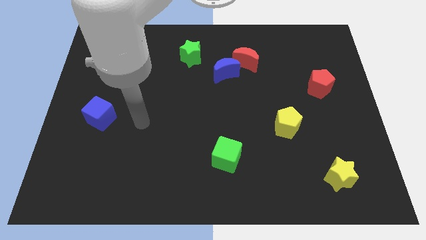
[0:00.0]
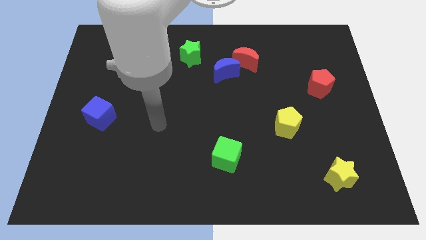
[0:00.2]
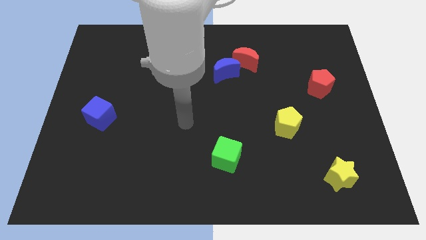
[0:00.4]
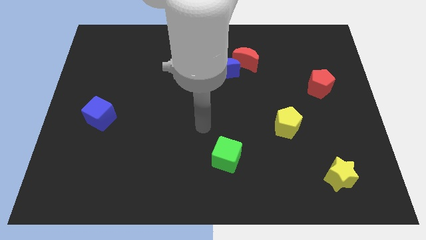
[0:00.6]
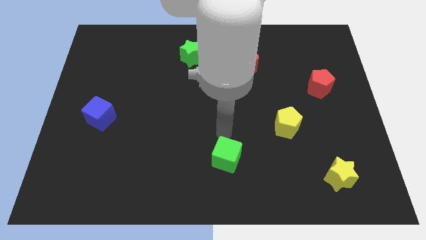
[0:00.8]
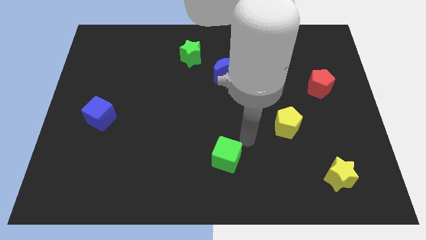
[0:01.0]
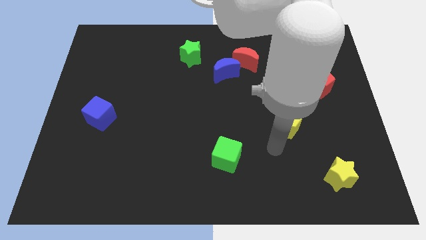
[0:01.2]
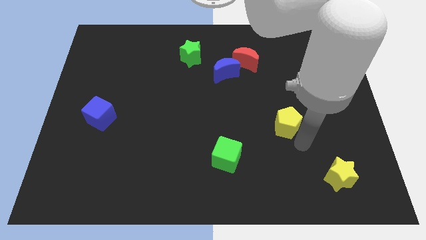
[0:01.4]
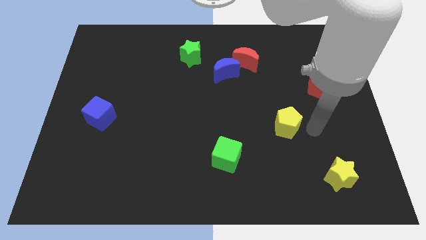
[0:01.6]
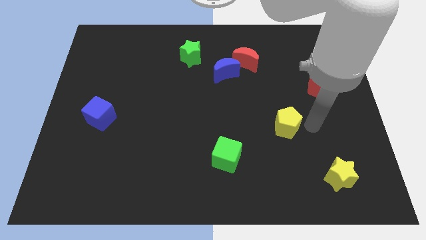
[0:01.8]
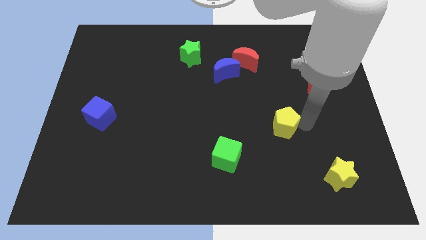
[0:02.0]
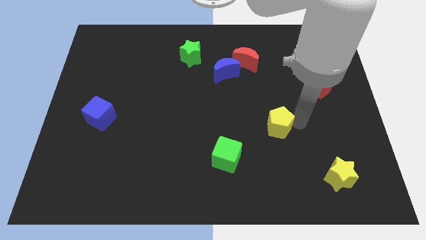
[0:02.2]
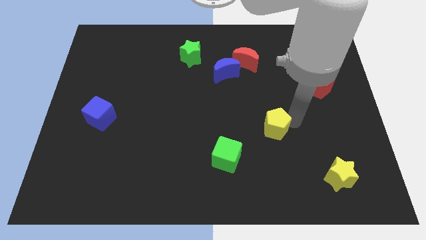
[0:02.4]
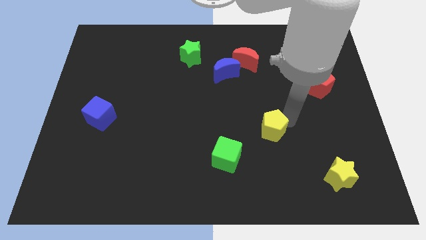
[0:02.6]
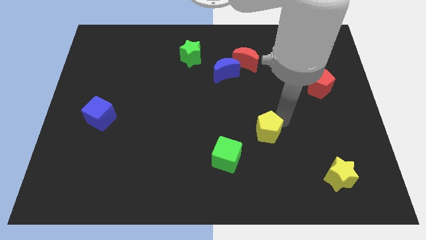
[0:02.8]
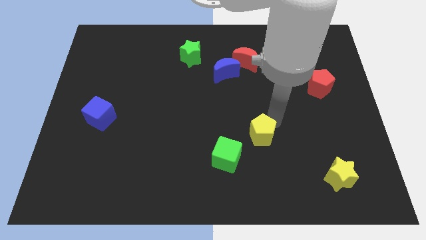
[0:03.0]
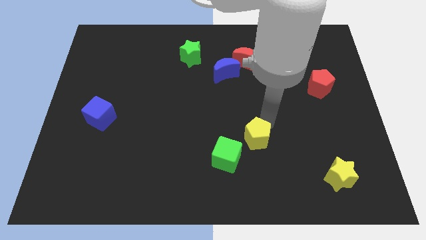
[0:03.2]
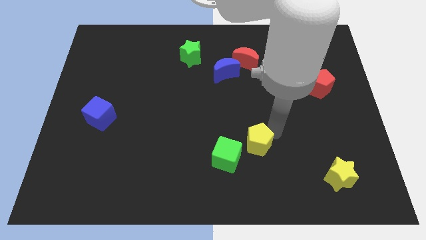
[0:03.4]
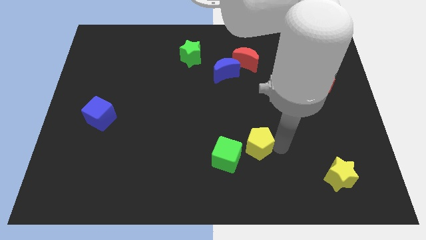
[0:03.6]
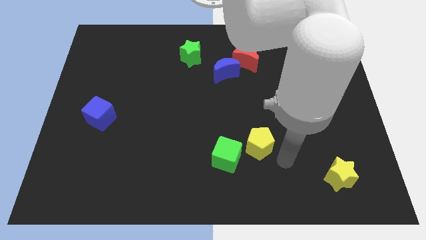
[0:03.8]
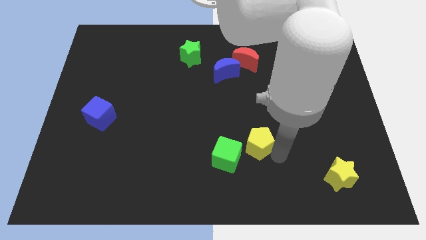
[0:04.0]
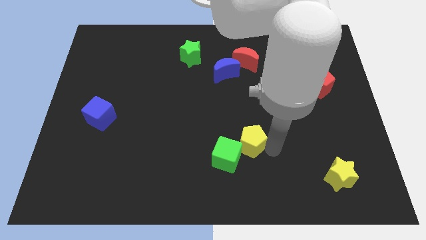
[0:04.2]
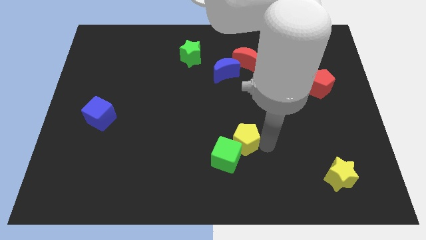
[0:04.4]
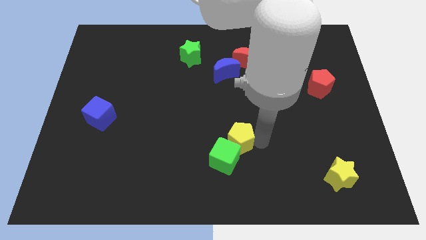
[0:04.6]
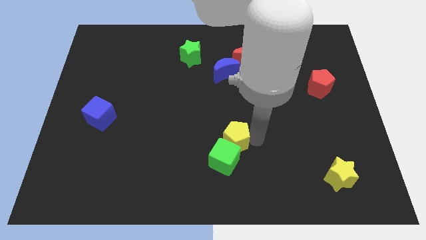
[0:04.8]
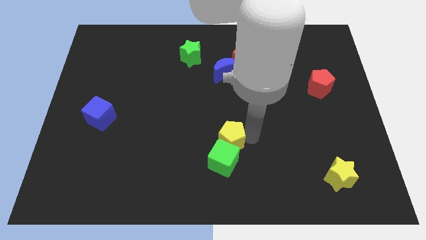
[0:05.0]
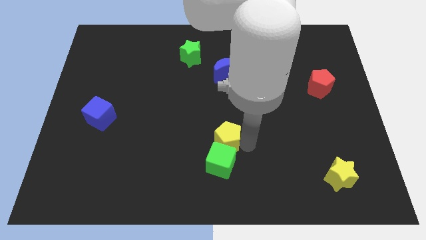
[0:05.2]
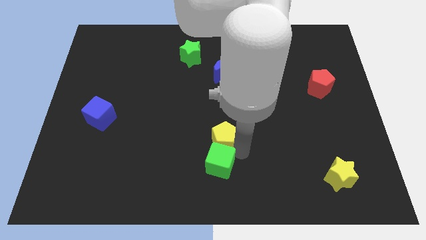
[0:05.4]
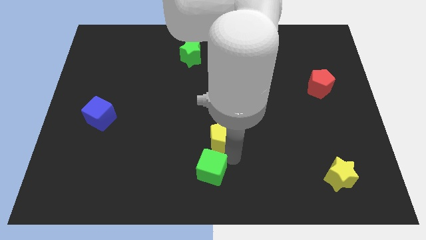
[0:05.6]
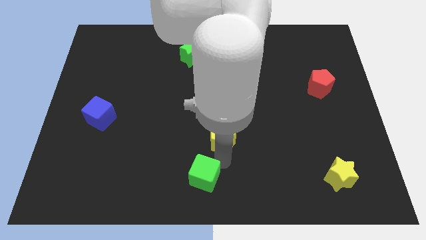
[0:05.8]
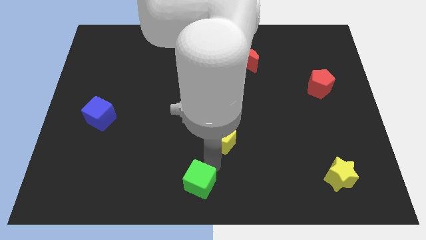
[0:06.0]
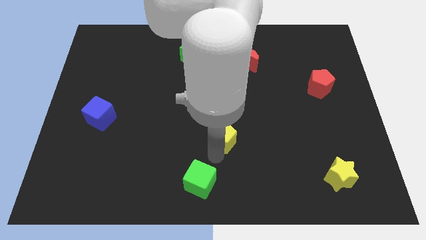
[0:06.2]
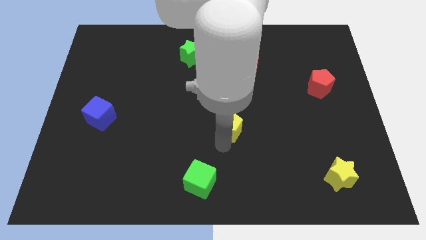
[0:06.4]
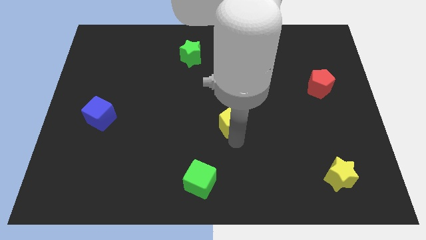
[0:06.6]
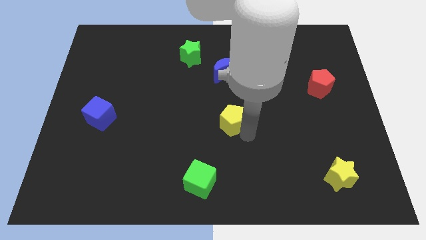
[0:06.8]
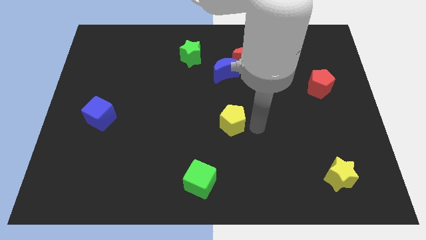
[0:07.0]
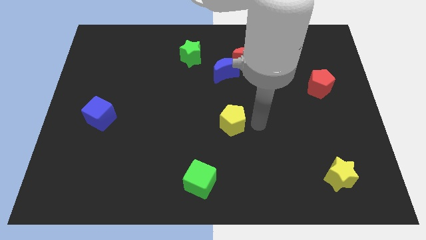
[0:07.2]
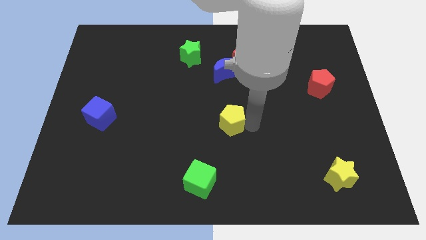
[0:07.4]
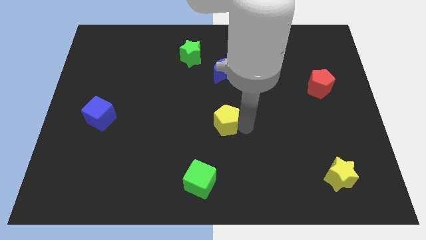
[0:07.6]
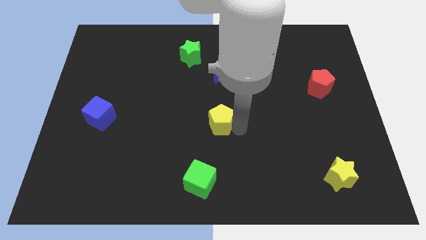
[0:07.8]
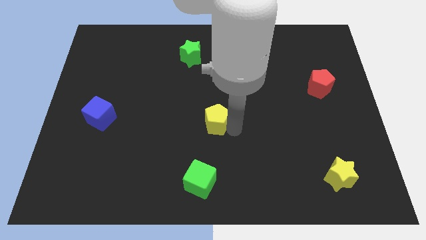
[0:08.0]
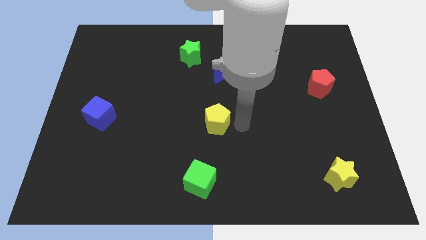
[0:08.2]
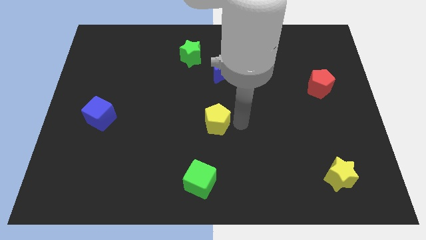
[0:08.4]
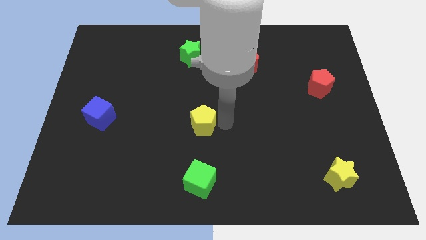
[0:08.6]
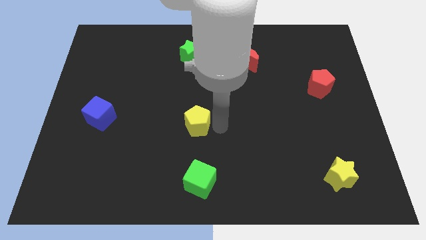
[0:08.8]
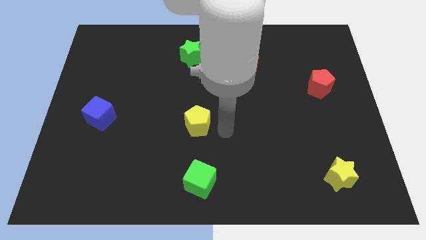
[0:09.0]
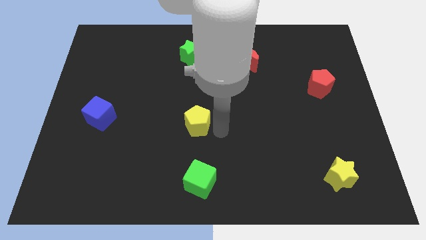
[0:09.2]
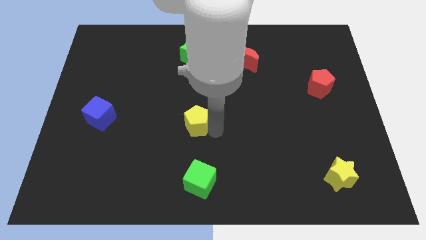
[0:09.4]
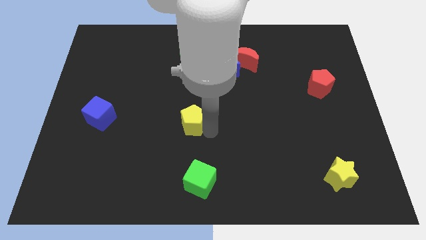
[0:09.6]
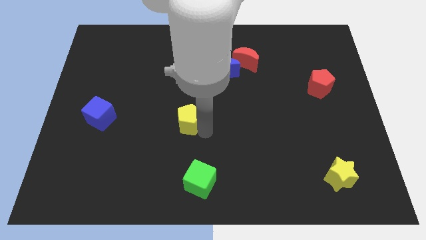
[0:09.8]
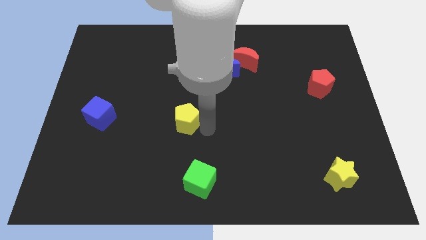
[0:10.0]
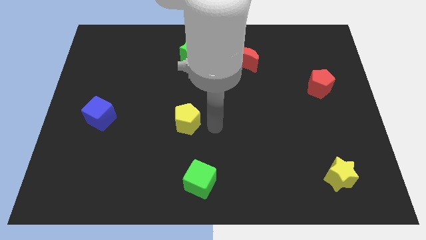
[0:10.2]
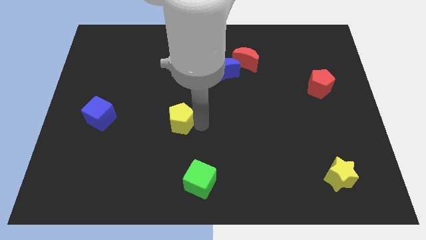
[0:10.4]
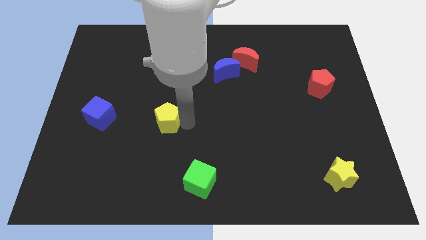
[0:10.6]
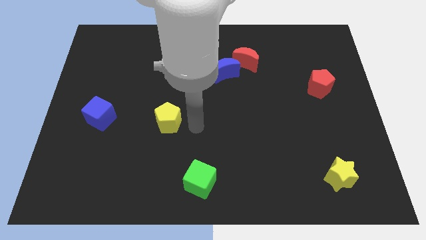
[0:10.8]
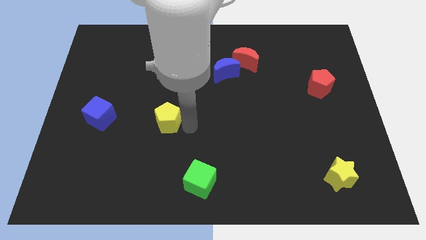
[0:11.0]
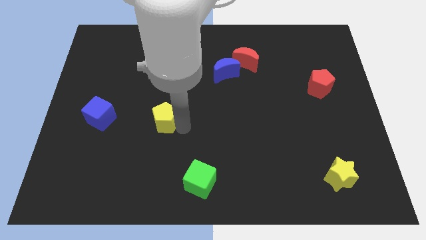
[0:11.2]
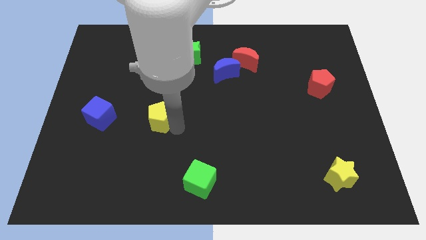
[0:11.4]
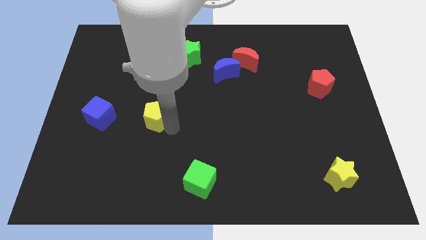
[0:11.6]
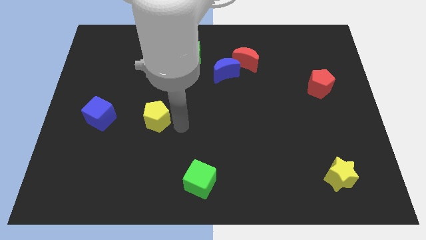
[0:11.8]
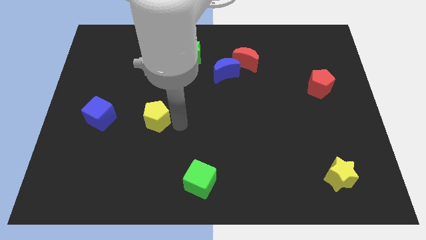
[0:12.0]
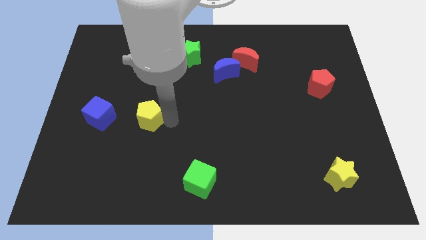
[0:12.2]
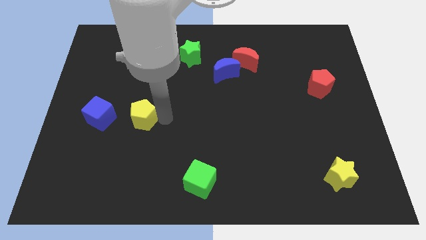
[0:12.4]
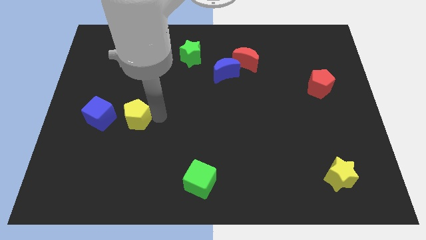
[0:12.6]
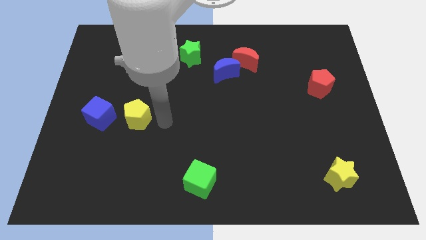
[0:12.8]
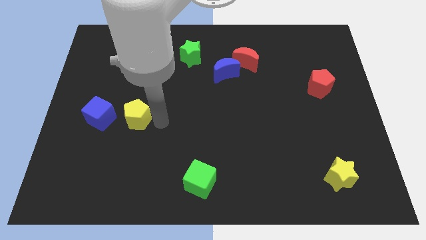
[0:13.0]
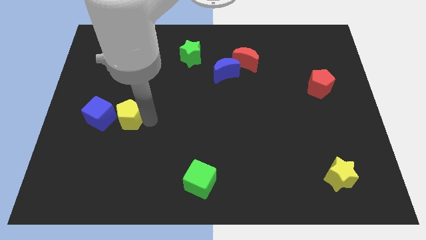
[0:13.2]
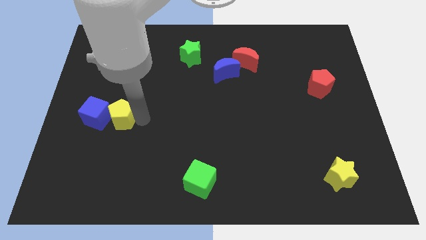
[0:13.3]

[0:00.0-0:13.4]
slide the yellow pentagon next to the blue cube

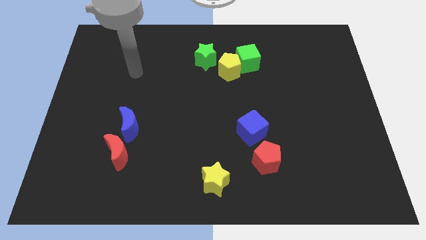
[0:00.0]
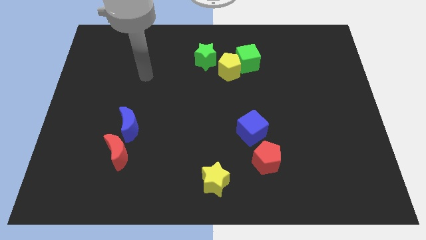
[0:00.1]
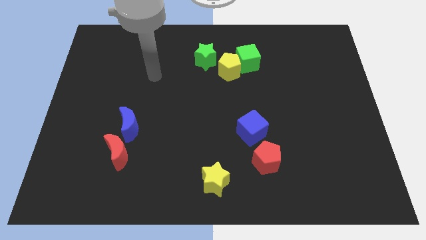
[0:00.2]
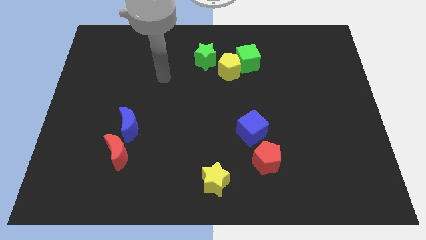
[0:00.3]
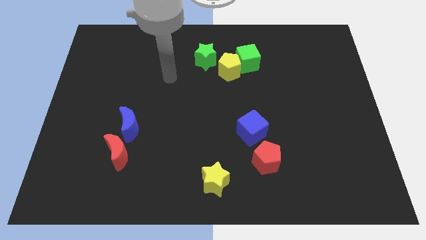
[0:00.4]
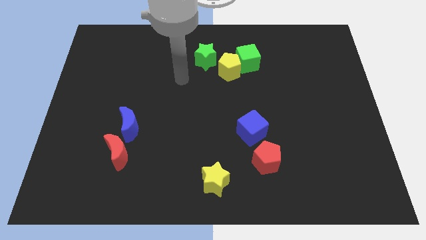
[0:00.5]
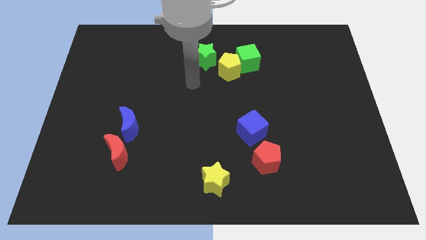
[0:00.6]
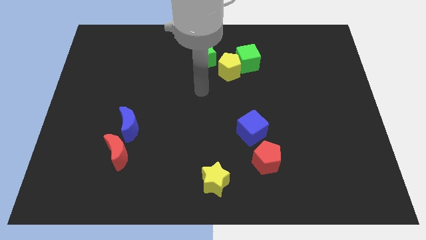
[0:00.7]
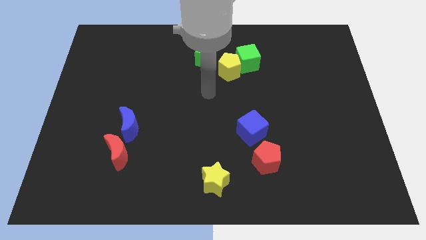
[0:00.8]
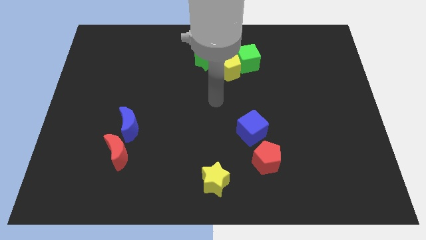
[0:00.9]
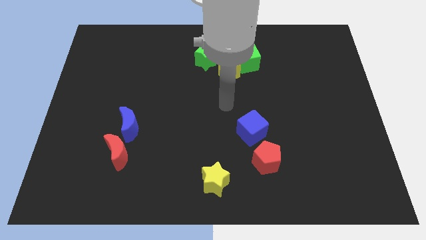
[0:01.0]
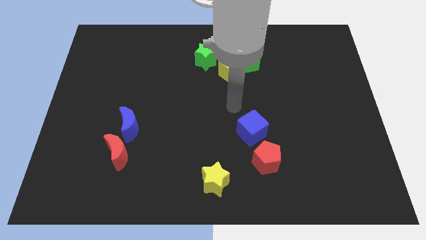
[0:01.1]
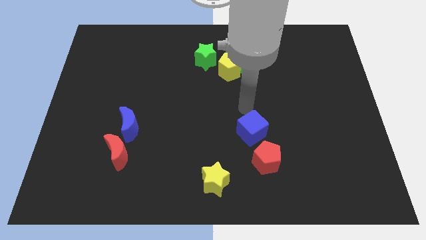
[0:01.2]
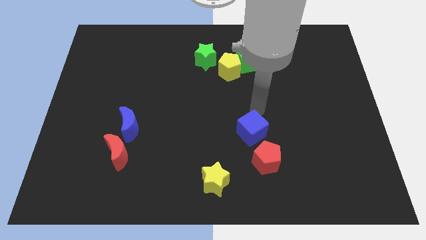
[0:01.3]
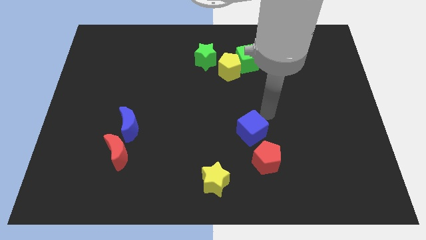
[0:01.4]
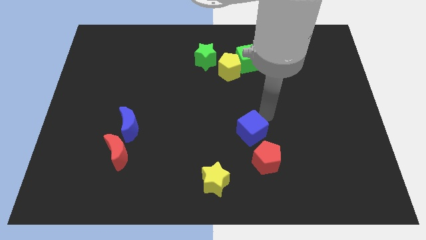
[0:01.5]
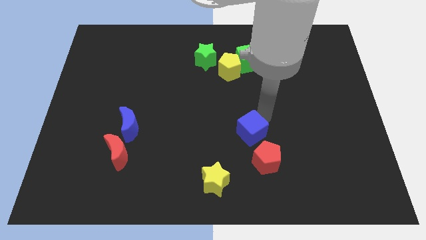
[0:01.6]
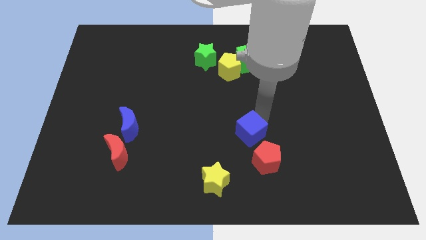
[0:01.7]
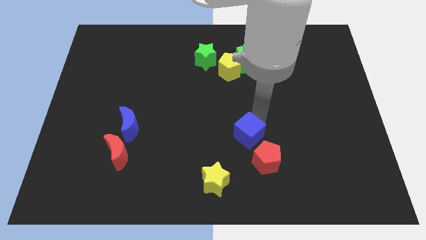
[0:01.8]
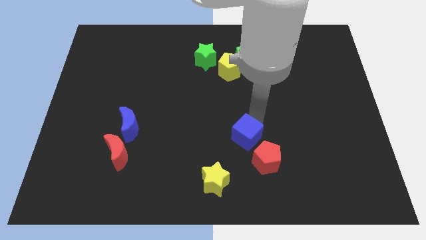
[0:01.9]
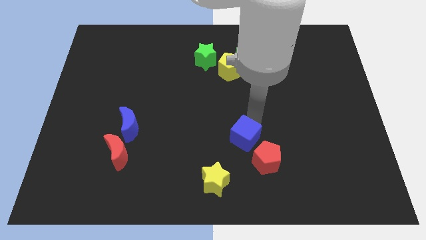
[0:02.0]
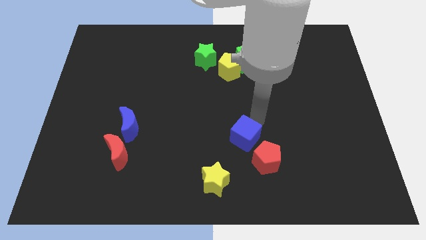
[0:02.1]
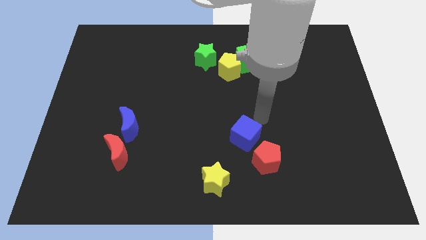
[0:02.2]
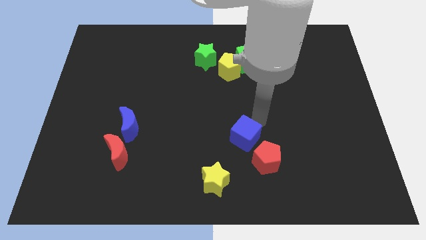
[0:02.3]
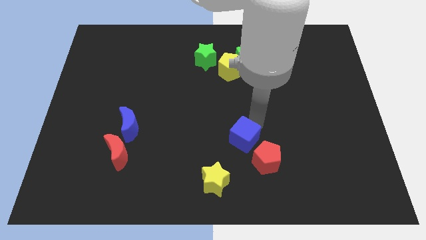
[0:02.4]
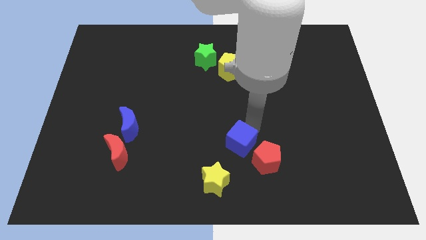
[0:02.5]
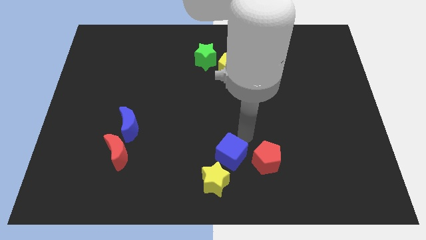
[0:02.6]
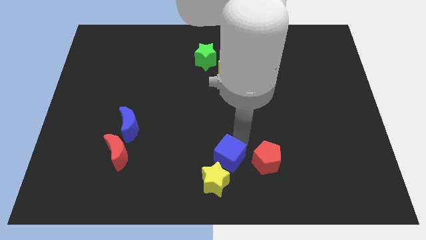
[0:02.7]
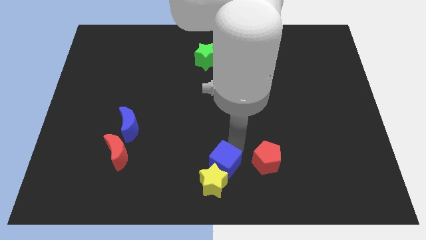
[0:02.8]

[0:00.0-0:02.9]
push the blue cube close to the yellow star
